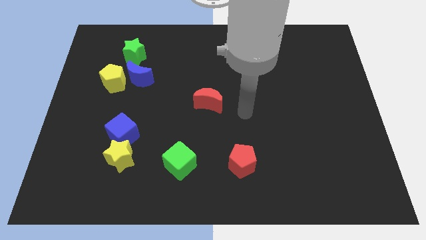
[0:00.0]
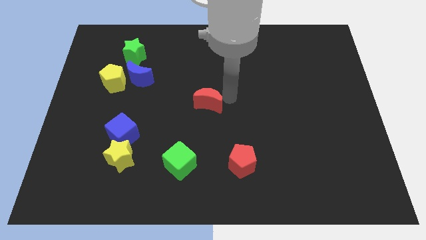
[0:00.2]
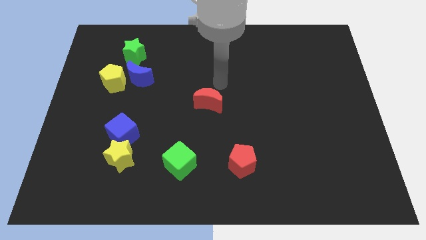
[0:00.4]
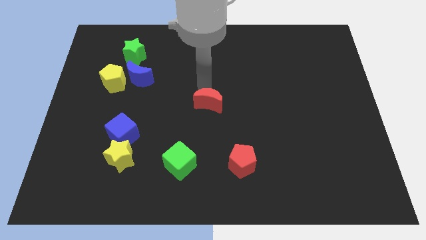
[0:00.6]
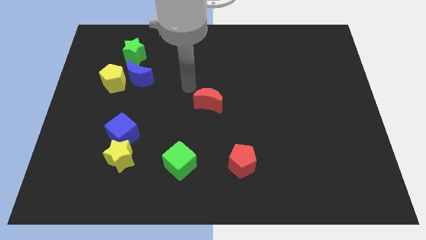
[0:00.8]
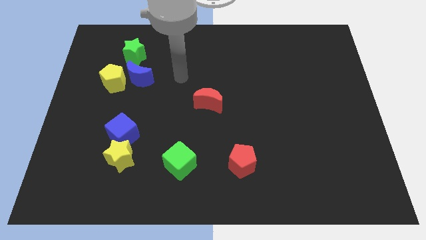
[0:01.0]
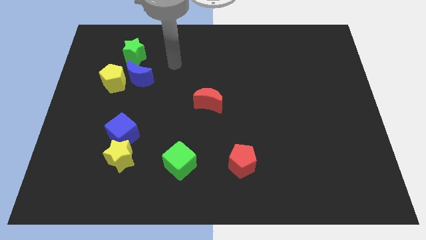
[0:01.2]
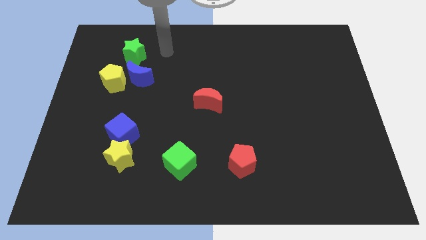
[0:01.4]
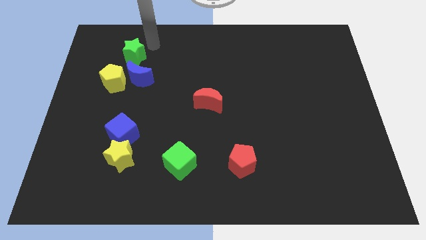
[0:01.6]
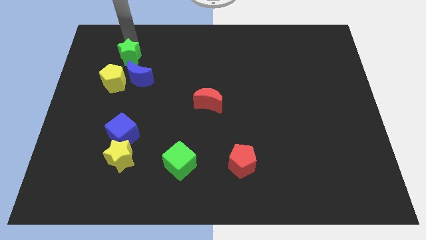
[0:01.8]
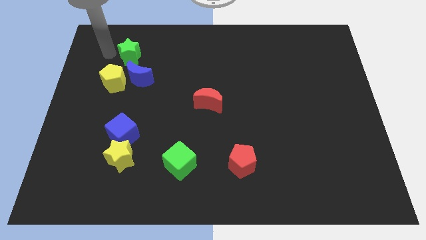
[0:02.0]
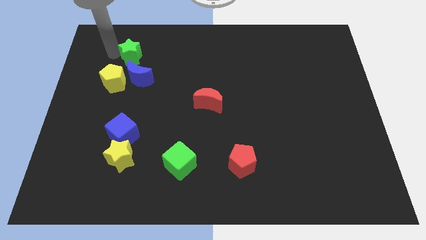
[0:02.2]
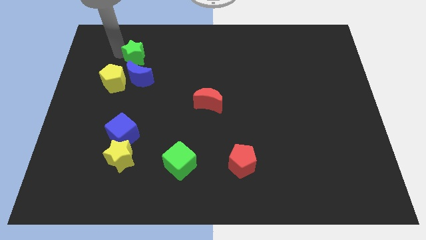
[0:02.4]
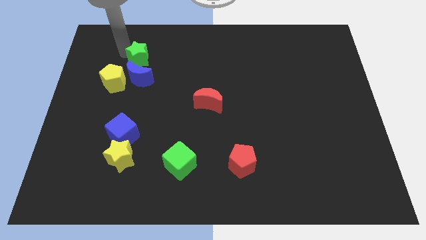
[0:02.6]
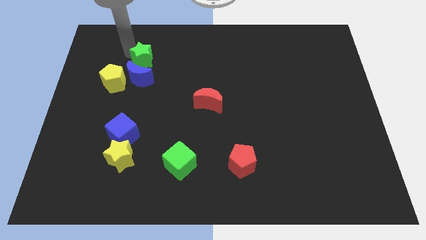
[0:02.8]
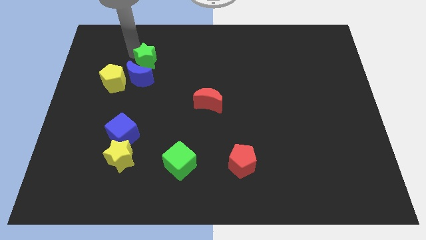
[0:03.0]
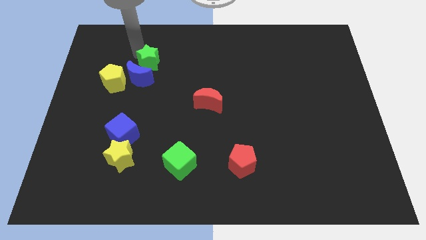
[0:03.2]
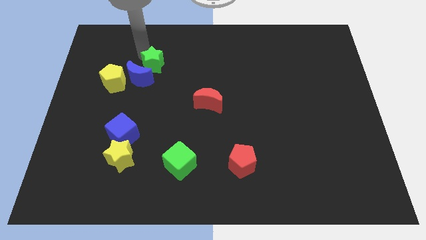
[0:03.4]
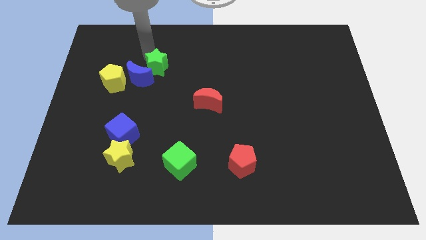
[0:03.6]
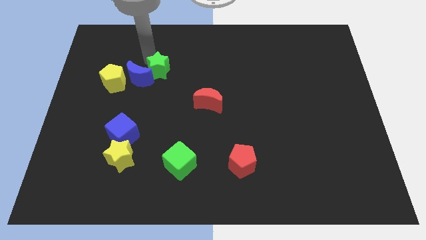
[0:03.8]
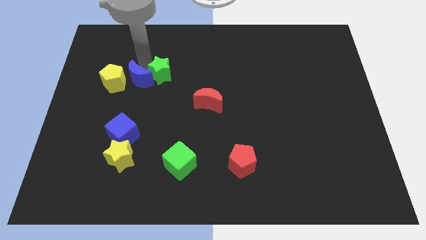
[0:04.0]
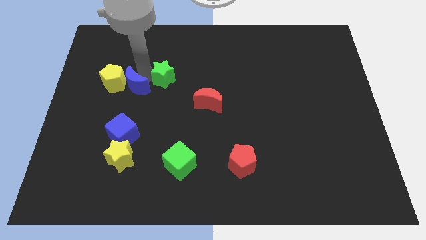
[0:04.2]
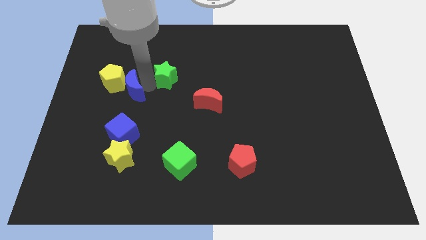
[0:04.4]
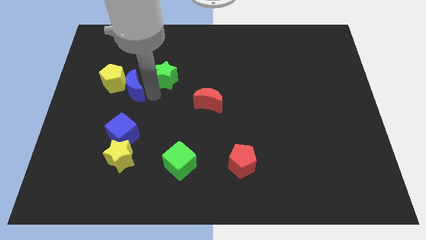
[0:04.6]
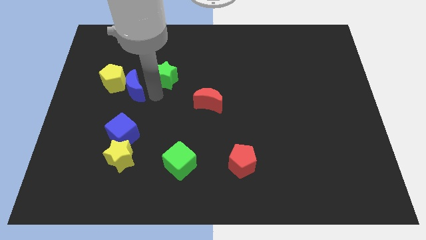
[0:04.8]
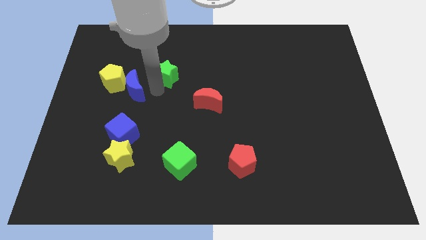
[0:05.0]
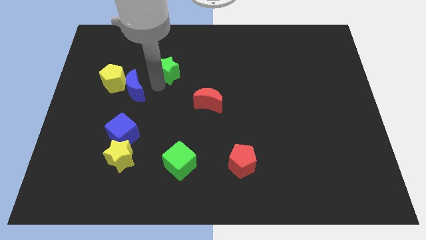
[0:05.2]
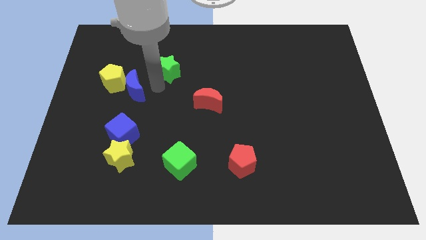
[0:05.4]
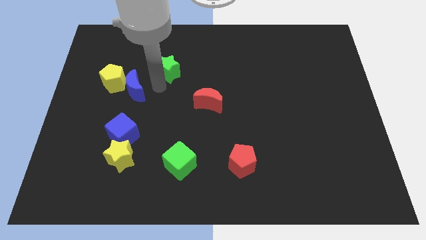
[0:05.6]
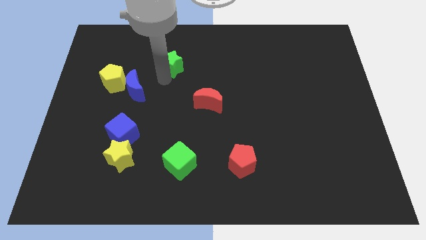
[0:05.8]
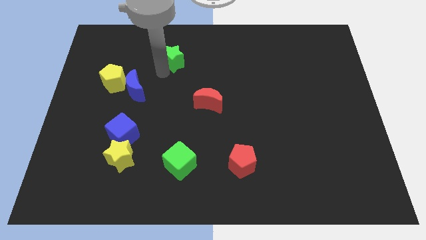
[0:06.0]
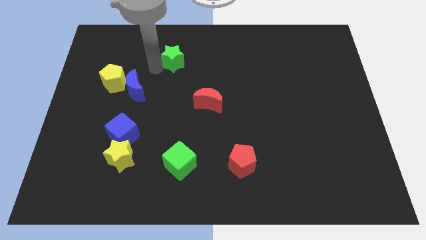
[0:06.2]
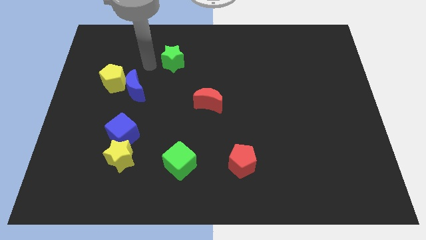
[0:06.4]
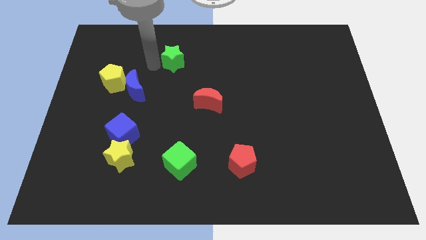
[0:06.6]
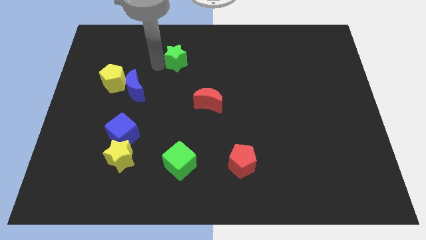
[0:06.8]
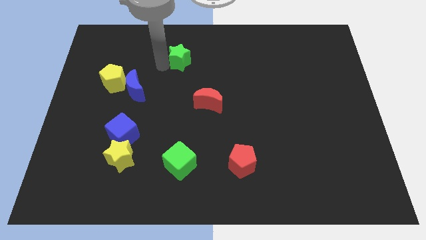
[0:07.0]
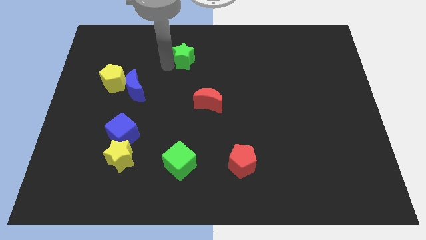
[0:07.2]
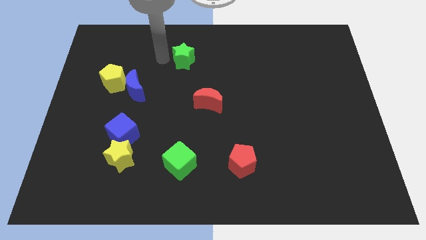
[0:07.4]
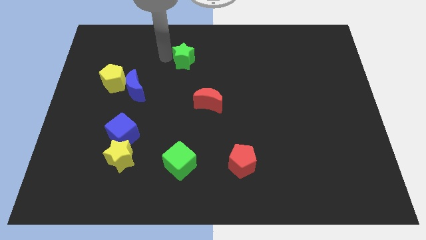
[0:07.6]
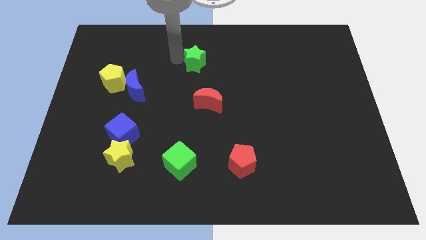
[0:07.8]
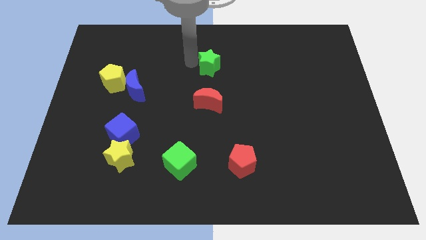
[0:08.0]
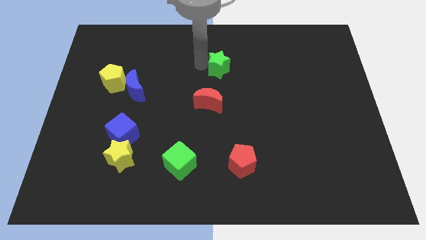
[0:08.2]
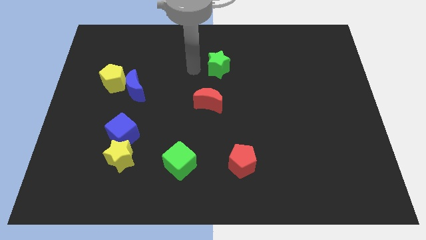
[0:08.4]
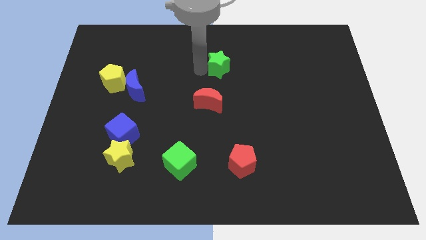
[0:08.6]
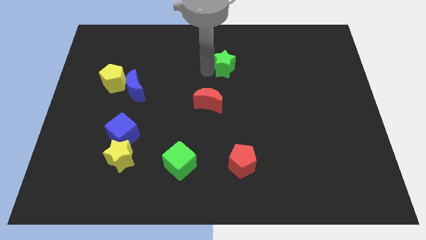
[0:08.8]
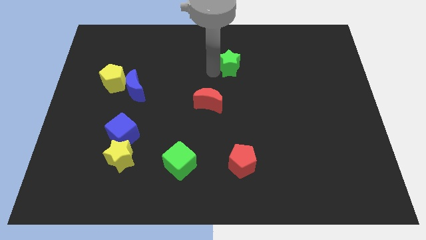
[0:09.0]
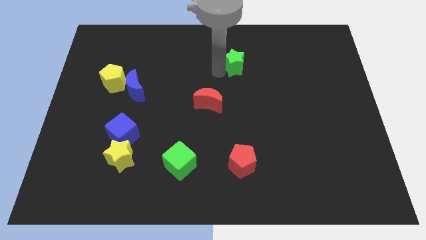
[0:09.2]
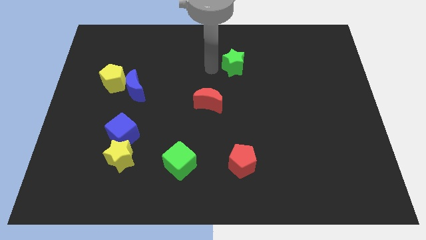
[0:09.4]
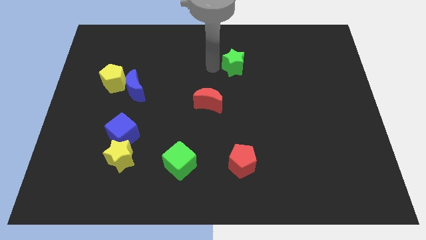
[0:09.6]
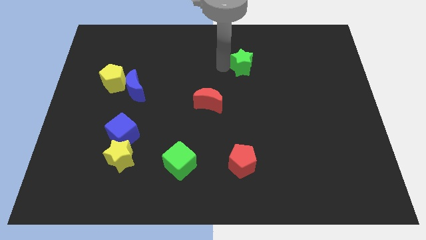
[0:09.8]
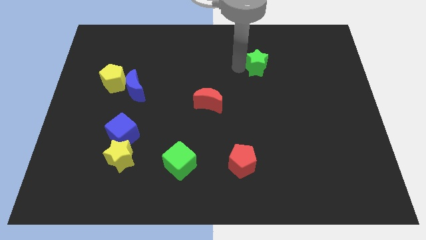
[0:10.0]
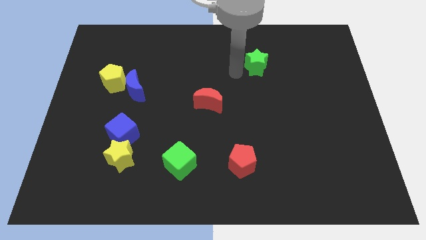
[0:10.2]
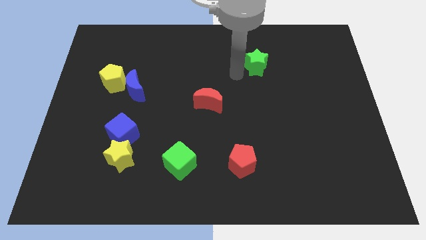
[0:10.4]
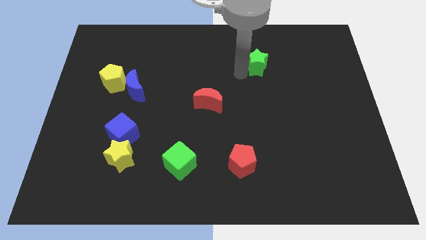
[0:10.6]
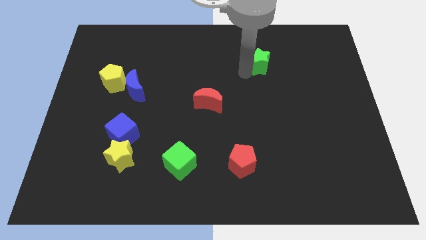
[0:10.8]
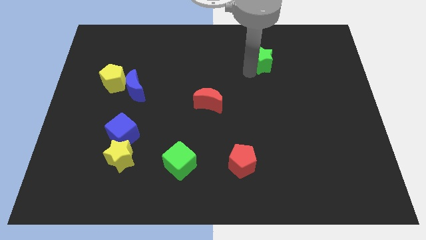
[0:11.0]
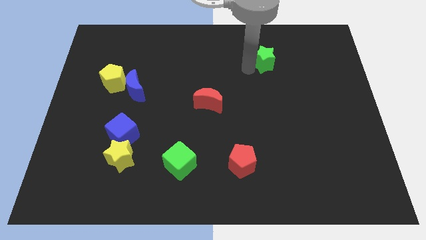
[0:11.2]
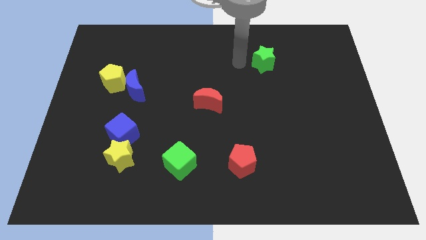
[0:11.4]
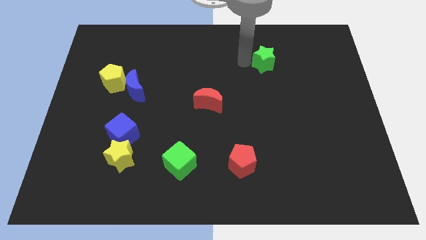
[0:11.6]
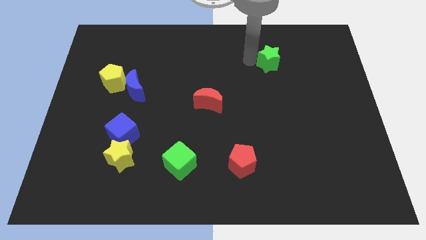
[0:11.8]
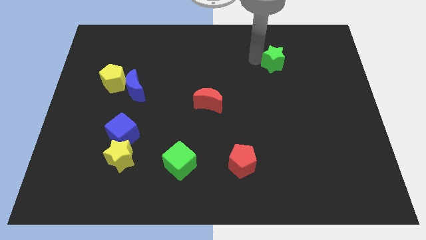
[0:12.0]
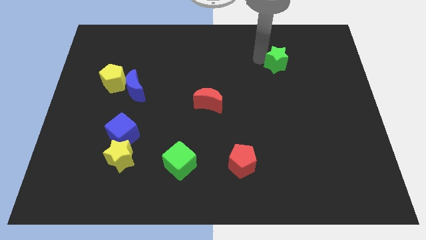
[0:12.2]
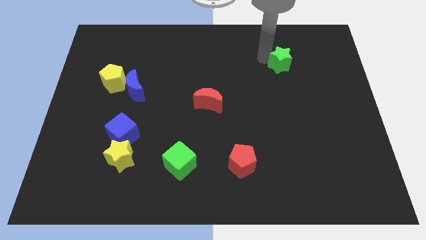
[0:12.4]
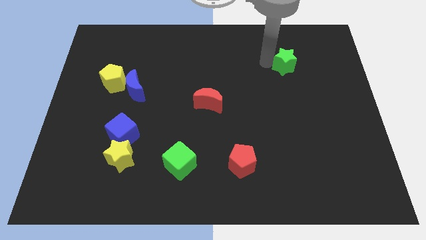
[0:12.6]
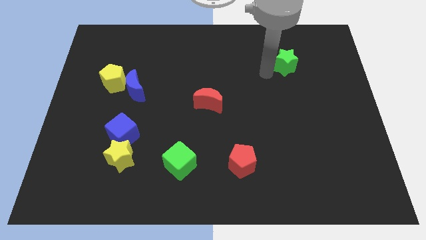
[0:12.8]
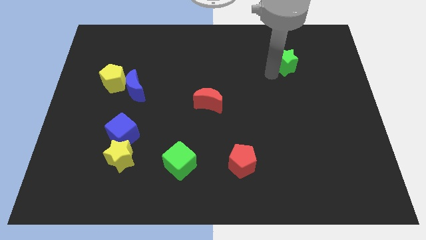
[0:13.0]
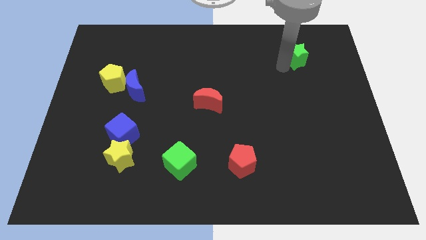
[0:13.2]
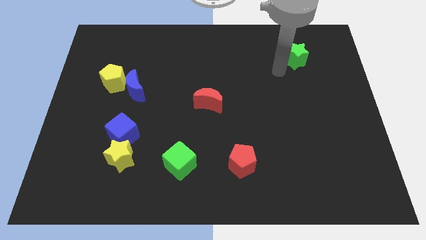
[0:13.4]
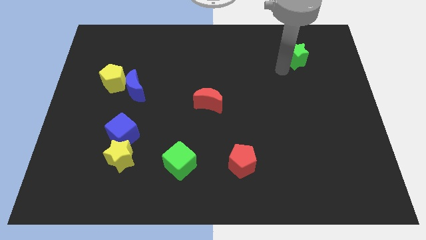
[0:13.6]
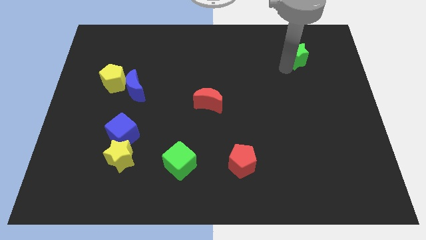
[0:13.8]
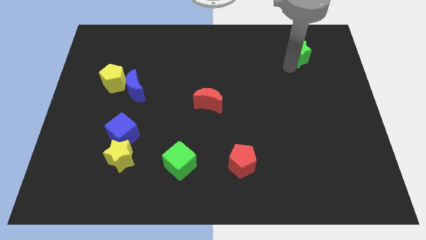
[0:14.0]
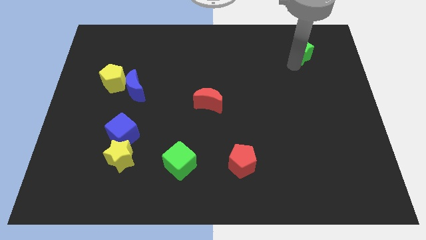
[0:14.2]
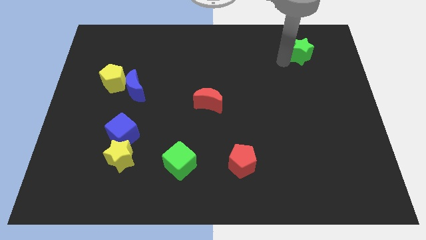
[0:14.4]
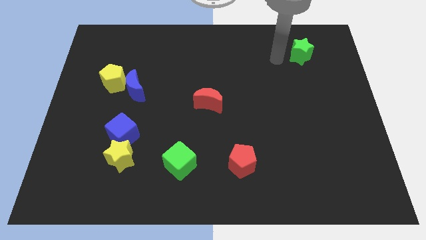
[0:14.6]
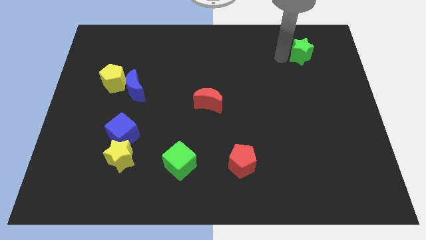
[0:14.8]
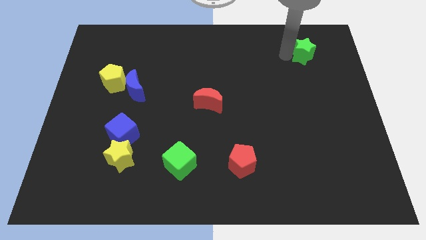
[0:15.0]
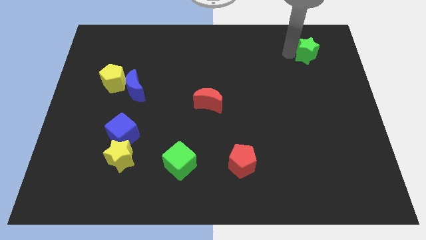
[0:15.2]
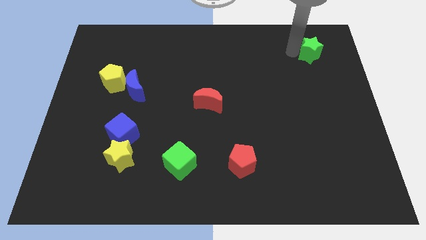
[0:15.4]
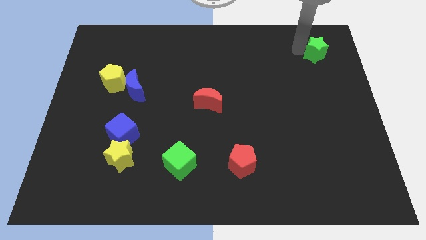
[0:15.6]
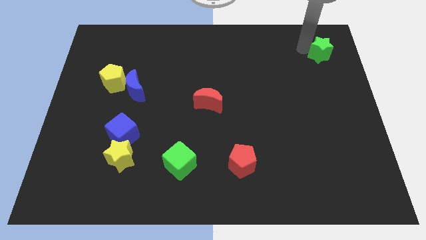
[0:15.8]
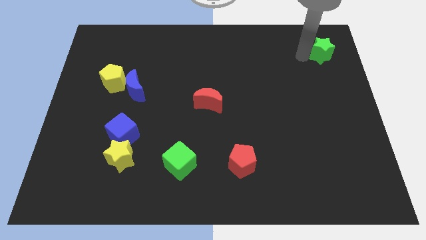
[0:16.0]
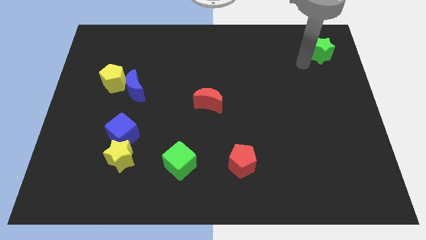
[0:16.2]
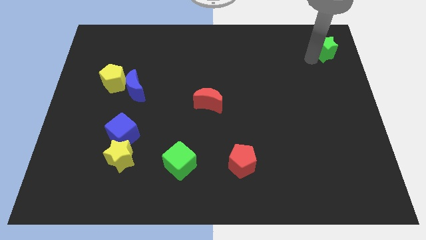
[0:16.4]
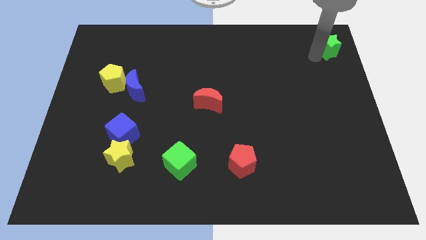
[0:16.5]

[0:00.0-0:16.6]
move the green star to the top right corner
